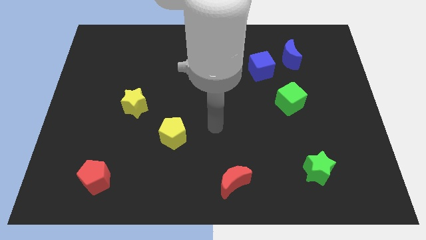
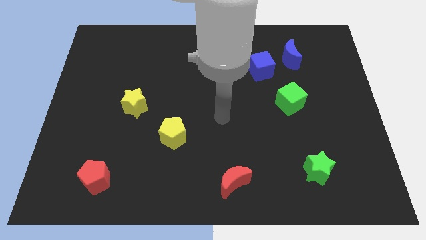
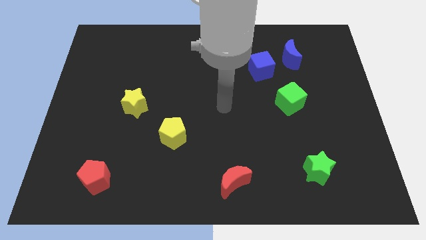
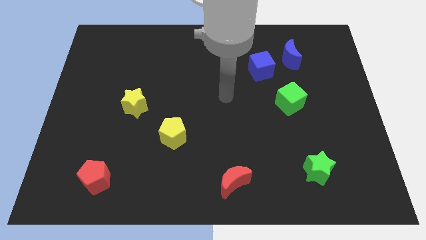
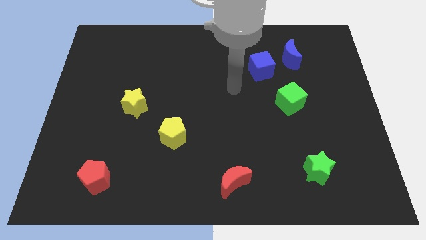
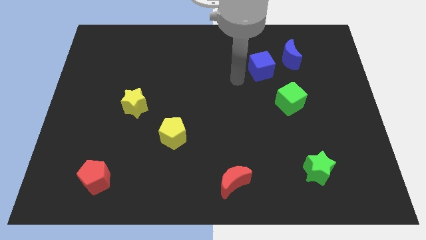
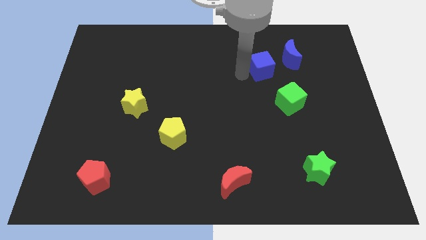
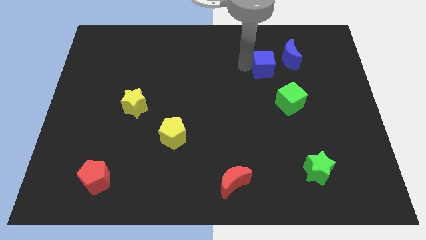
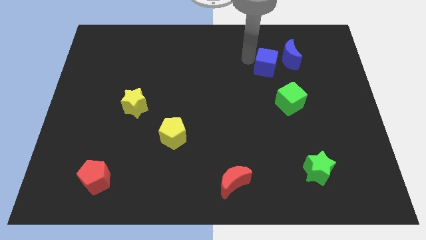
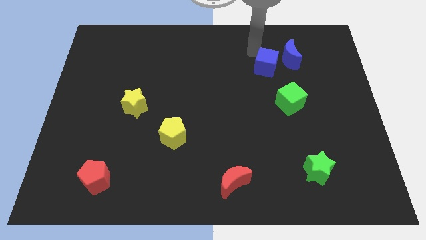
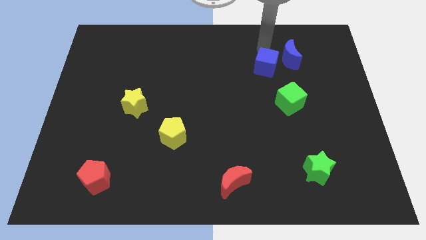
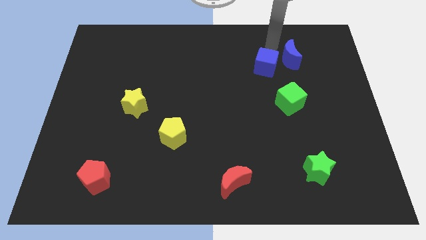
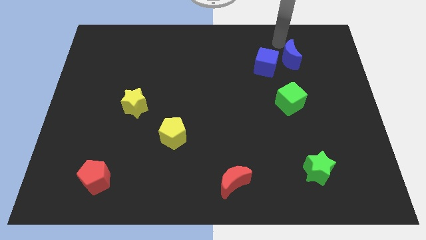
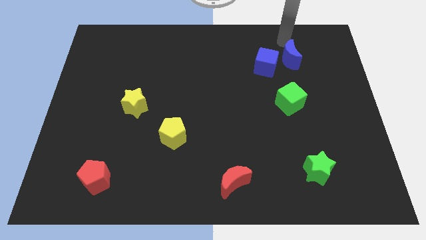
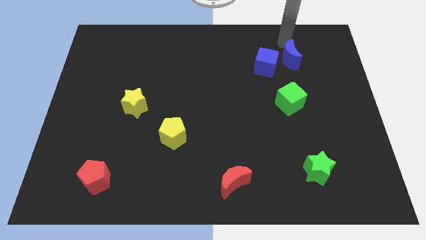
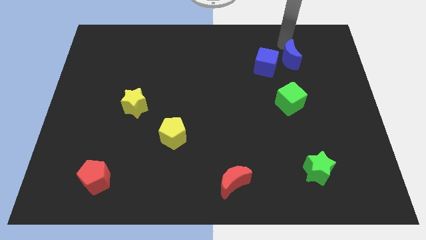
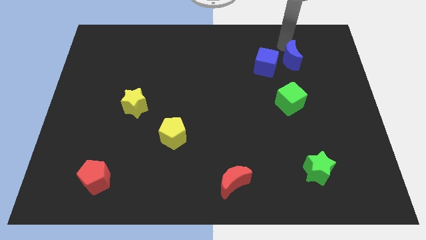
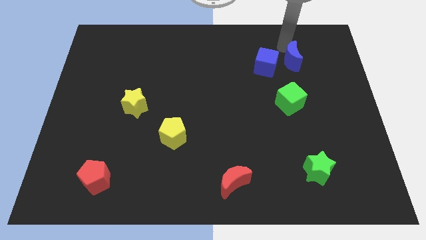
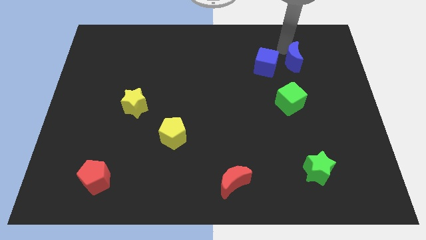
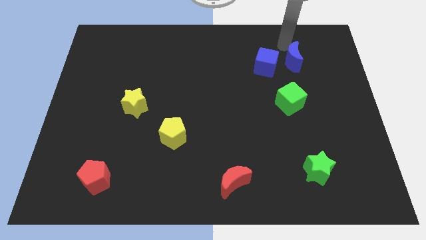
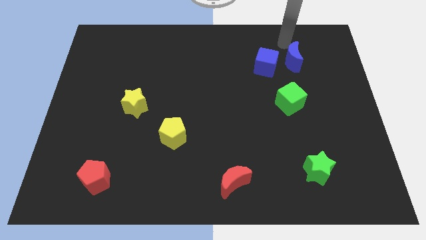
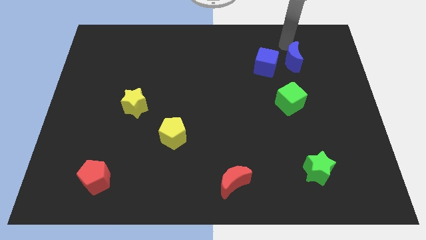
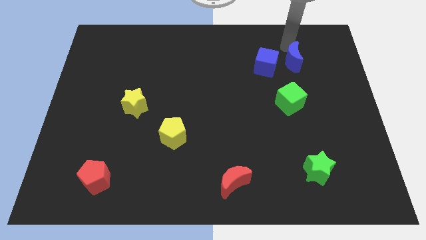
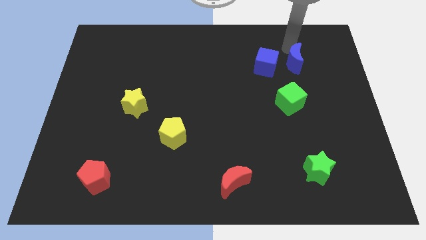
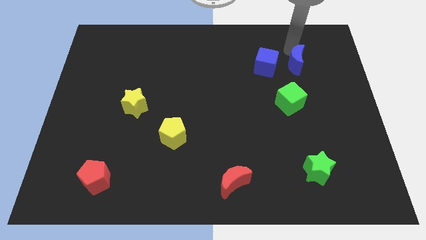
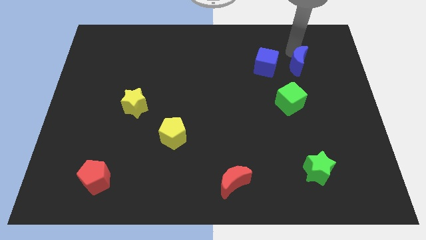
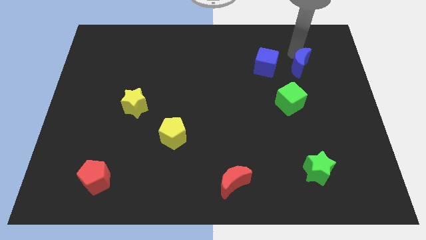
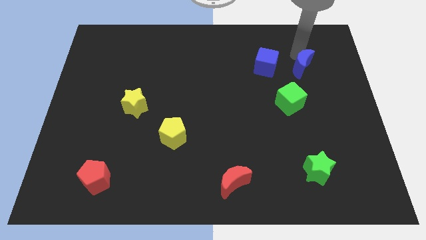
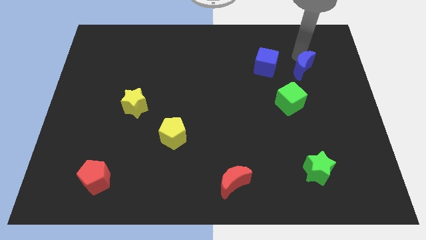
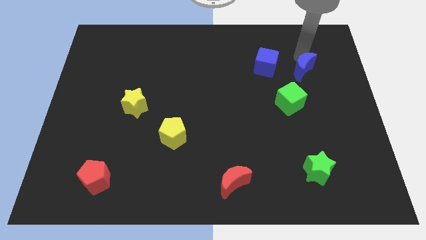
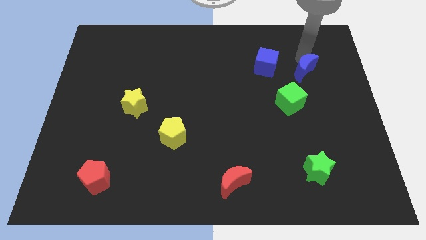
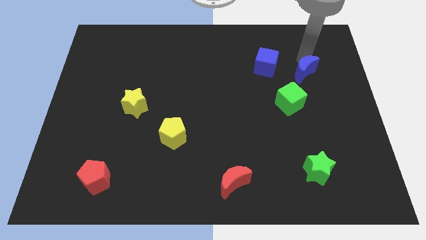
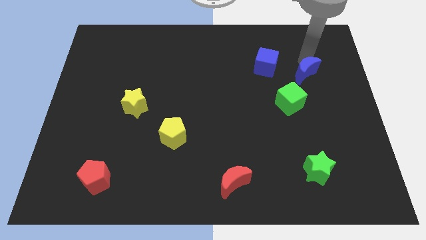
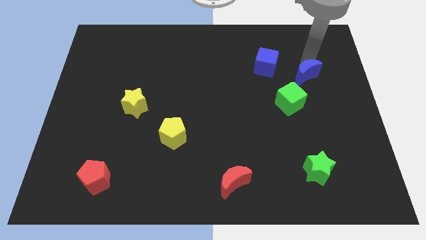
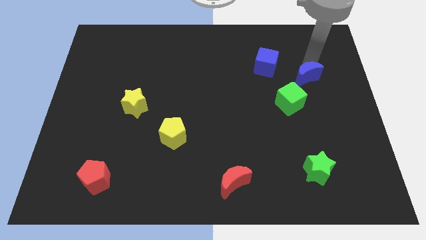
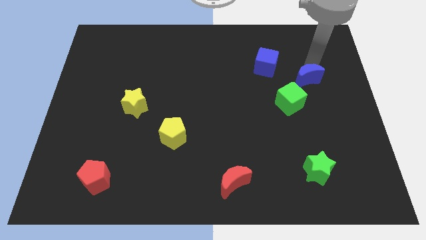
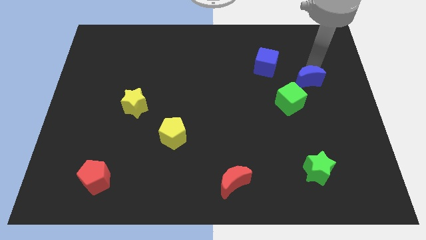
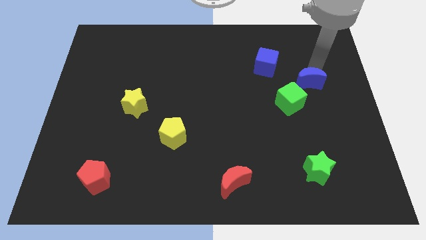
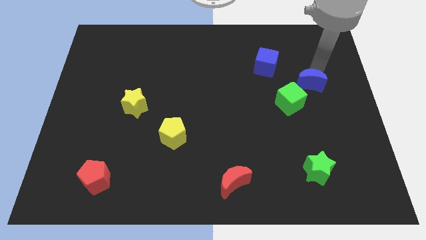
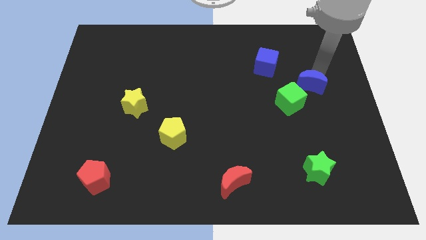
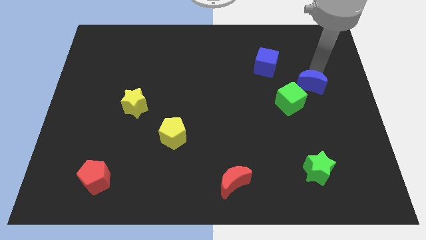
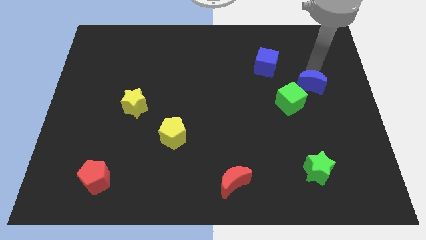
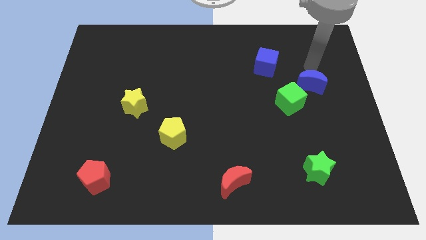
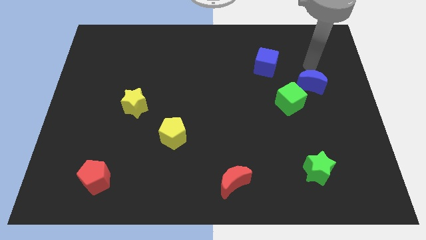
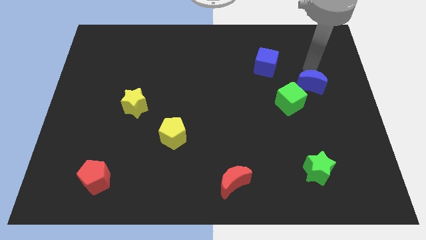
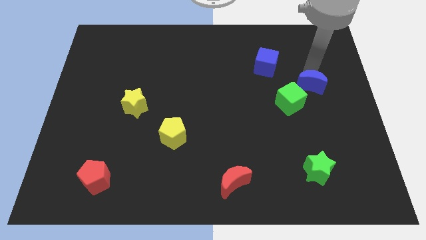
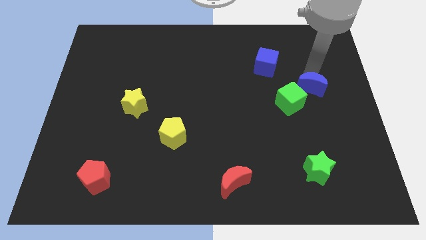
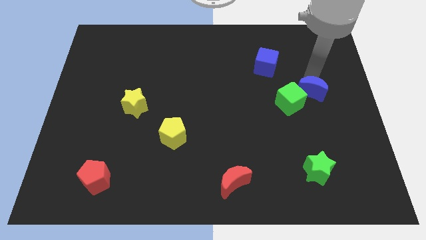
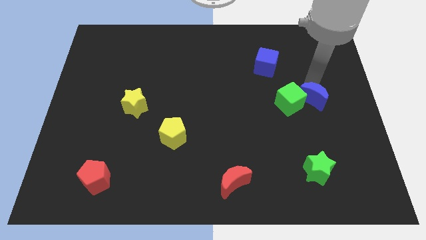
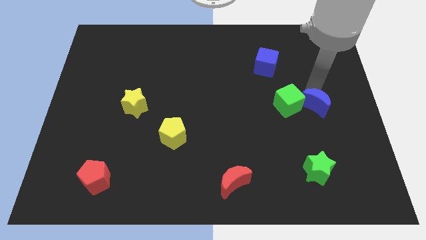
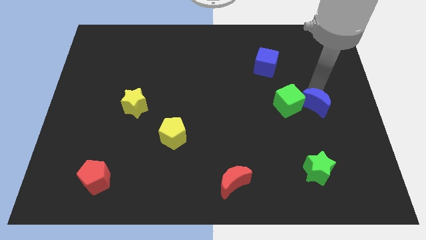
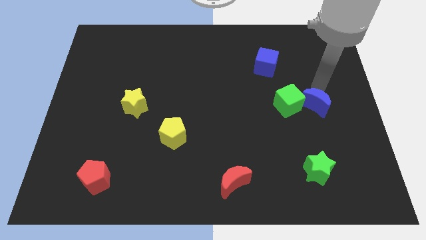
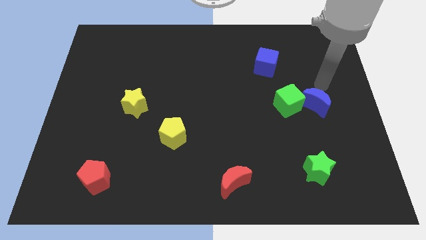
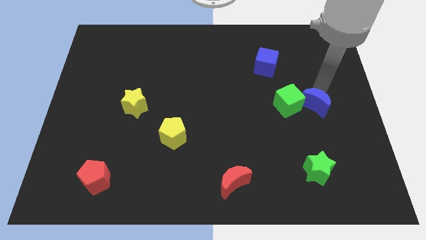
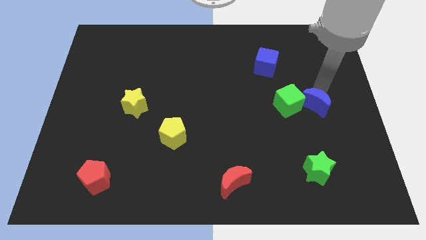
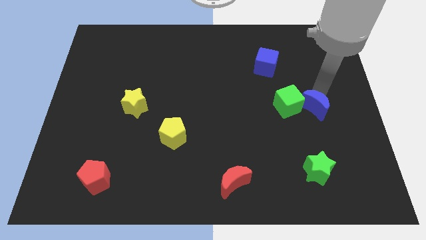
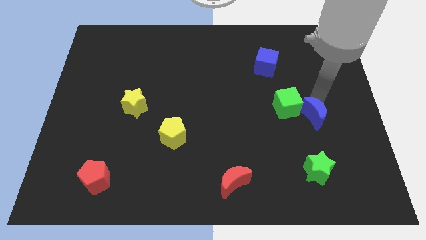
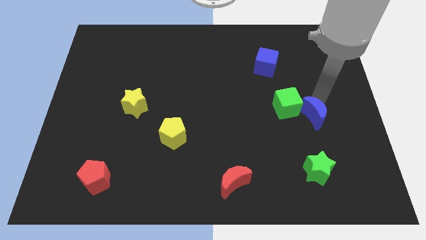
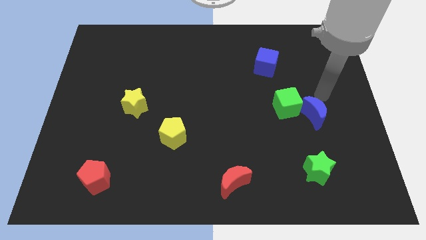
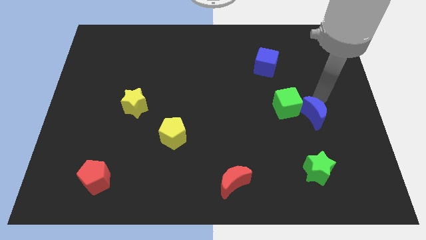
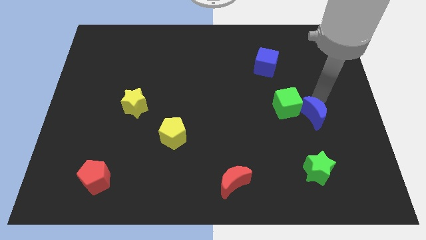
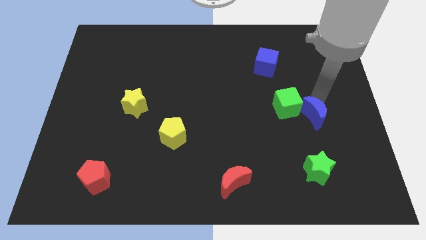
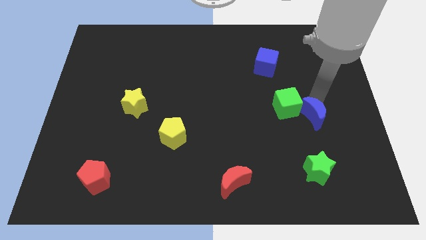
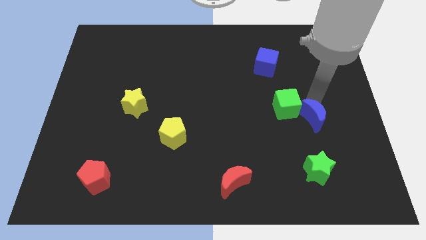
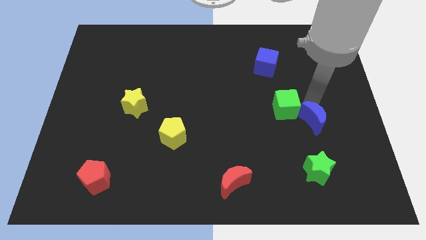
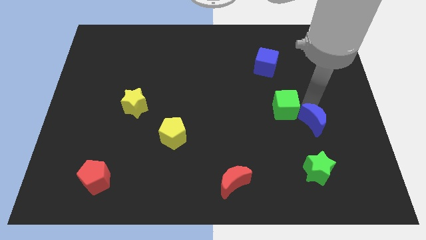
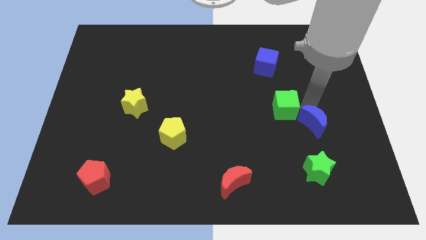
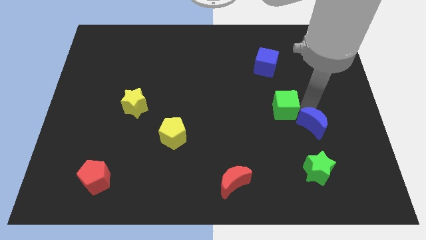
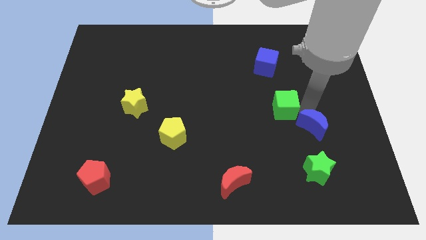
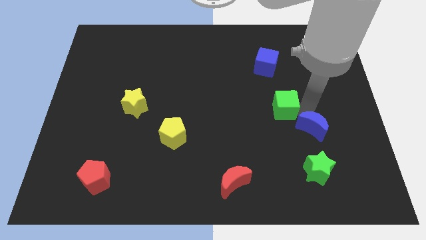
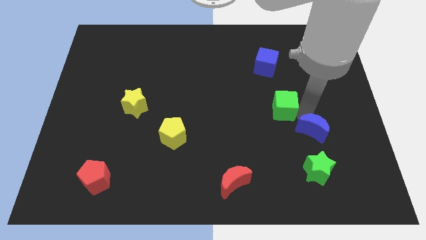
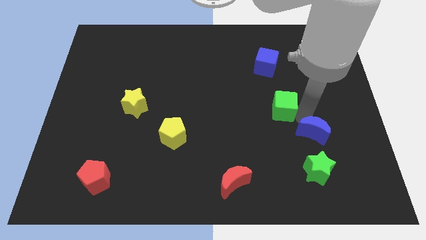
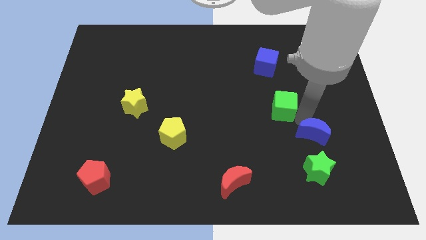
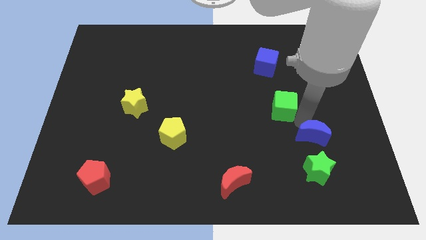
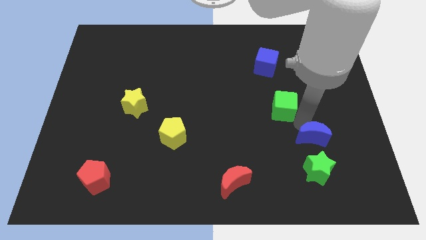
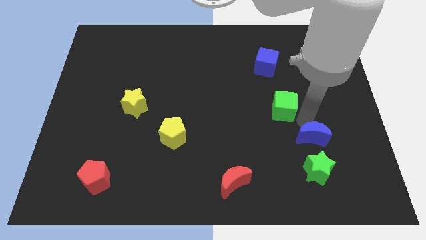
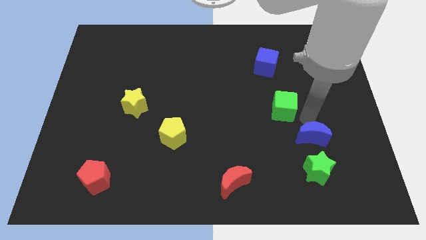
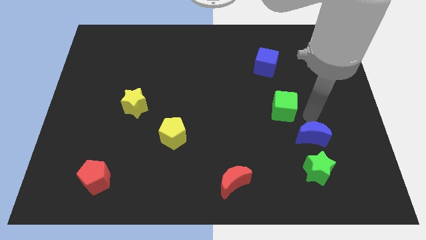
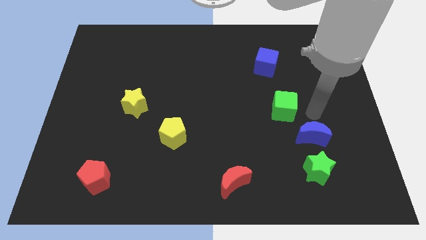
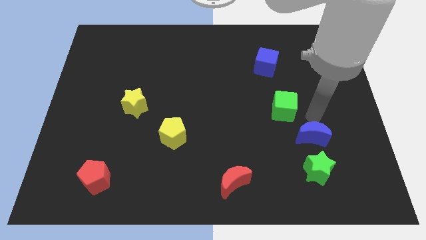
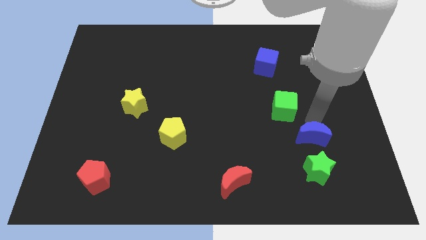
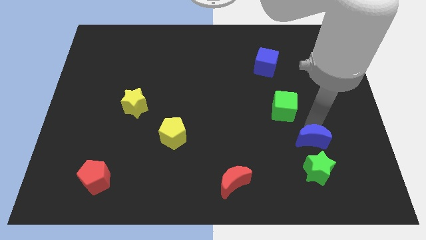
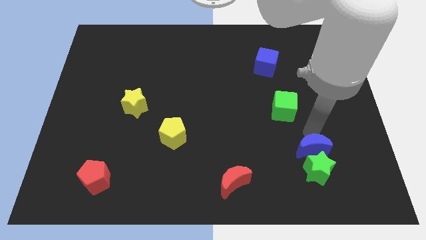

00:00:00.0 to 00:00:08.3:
slide the blue moon close to the green star
